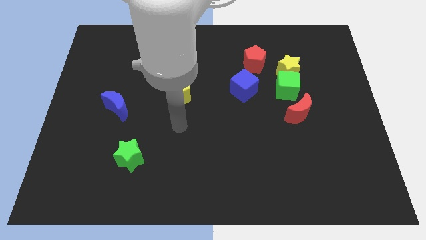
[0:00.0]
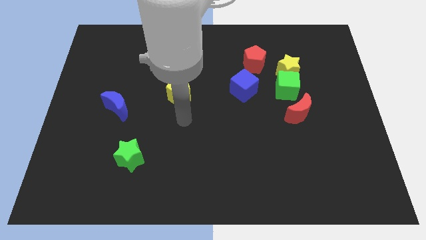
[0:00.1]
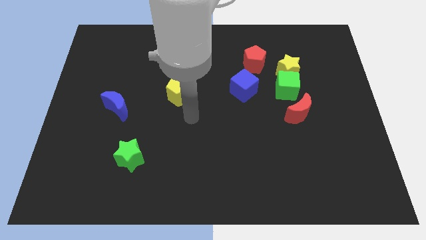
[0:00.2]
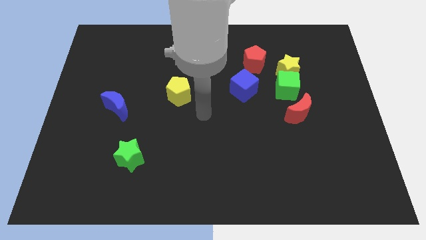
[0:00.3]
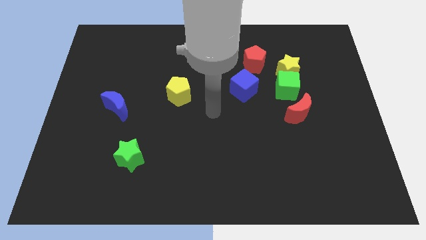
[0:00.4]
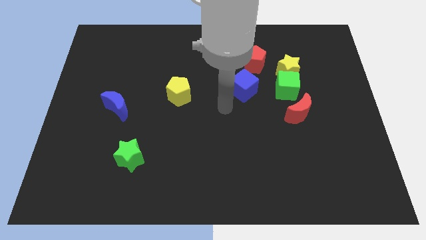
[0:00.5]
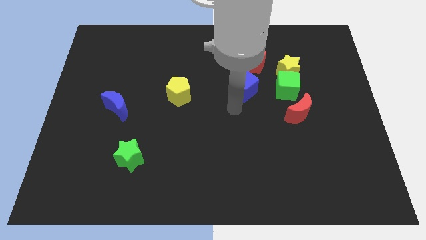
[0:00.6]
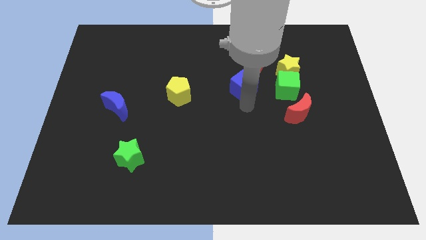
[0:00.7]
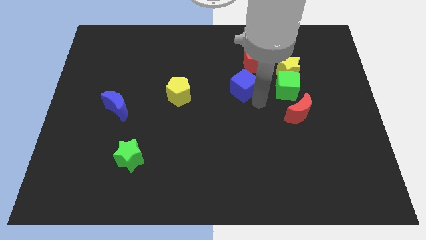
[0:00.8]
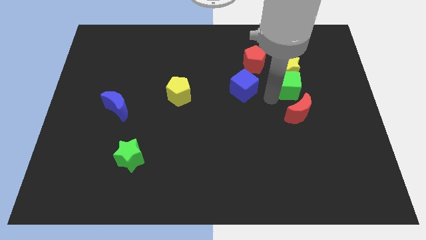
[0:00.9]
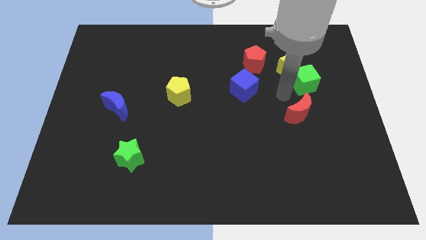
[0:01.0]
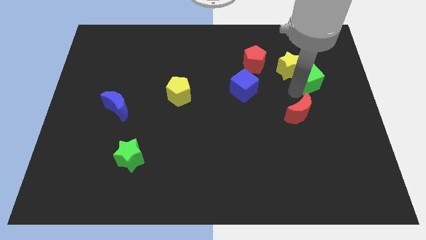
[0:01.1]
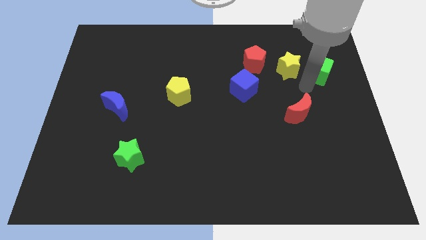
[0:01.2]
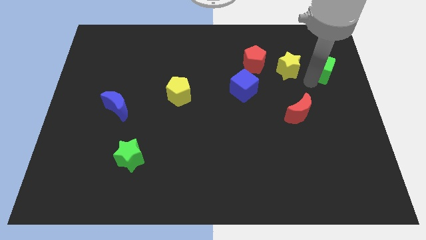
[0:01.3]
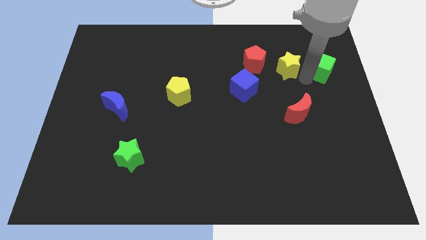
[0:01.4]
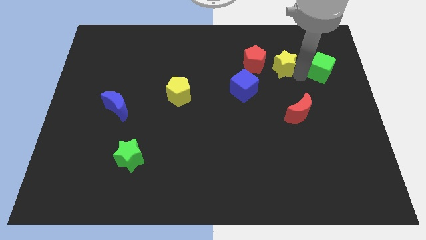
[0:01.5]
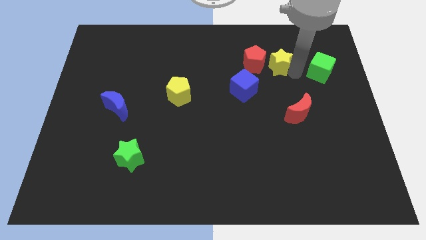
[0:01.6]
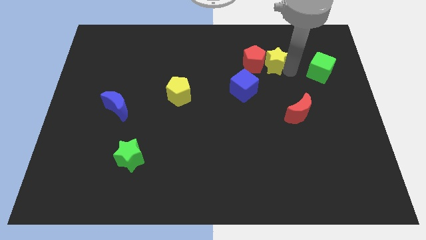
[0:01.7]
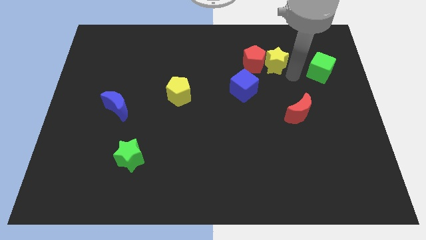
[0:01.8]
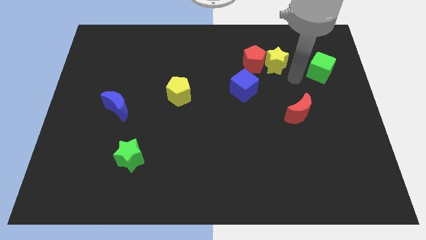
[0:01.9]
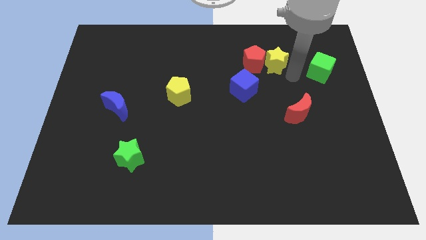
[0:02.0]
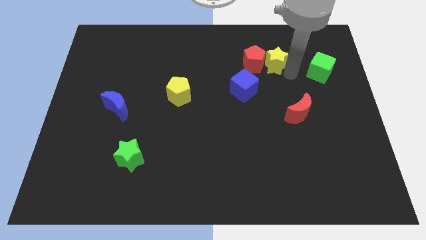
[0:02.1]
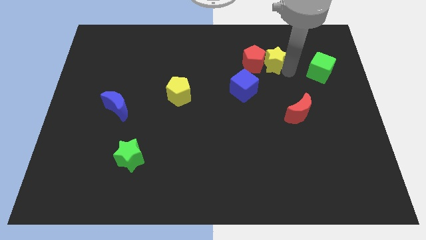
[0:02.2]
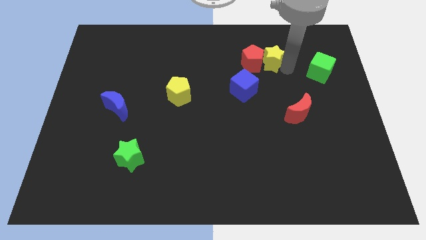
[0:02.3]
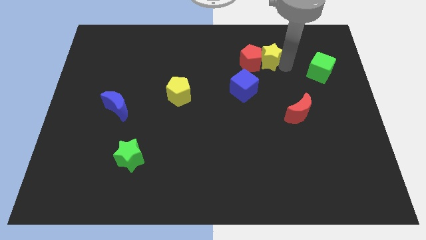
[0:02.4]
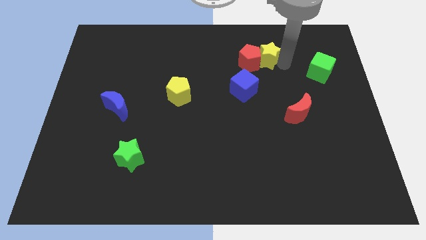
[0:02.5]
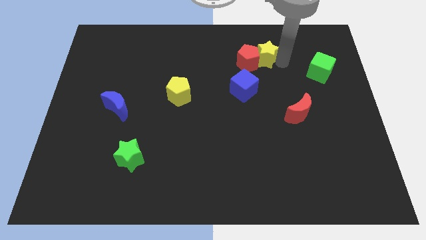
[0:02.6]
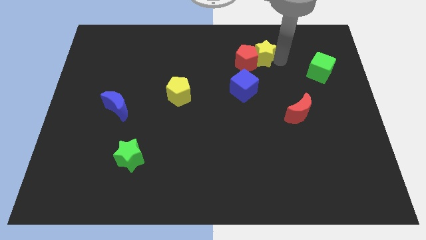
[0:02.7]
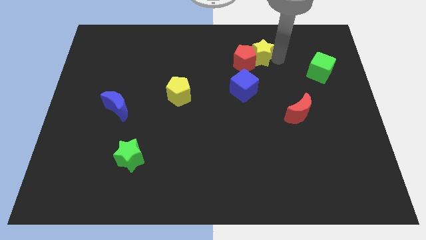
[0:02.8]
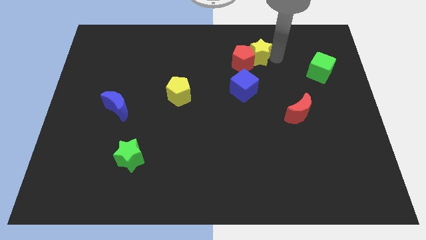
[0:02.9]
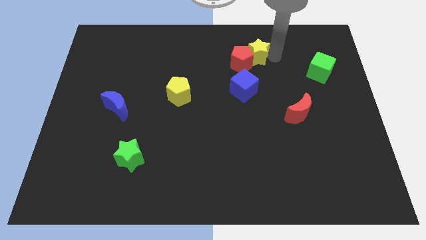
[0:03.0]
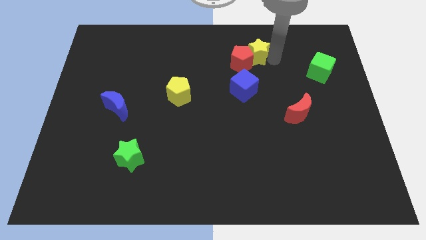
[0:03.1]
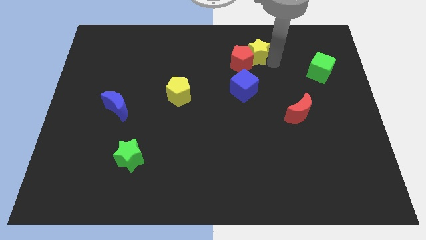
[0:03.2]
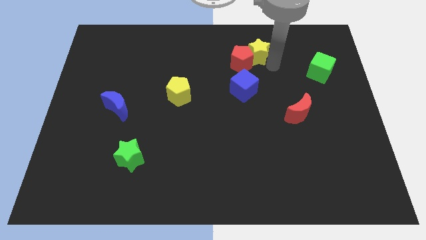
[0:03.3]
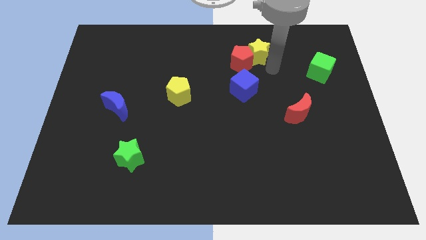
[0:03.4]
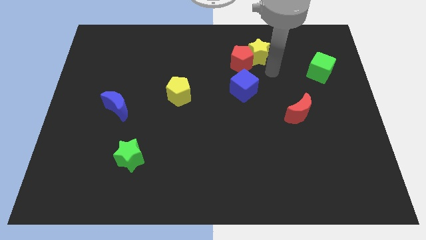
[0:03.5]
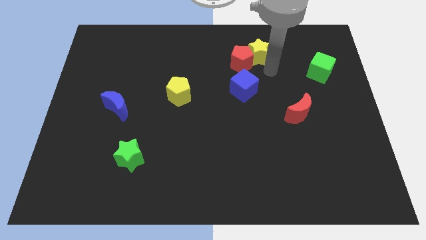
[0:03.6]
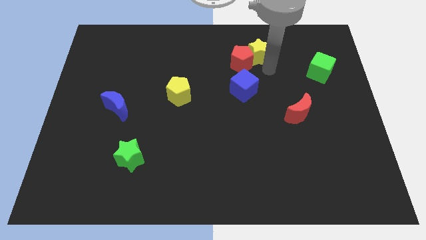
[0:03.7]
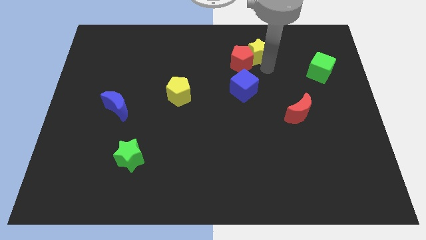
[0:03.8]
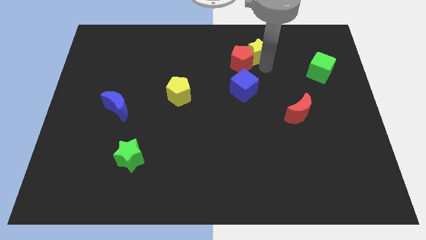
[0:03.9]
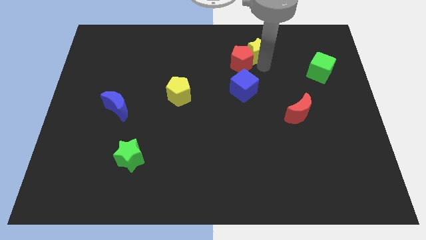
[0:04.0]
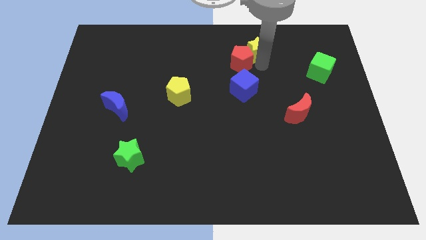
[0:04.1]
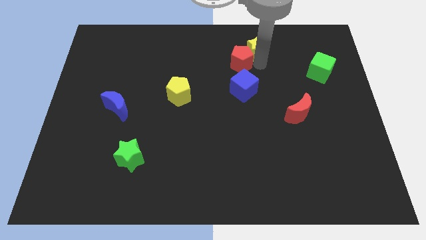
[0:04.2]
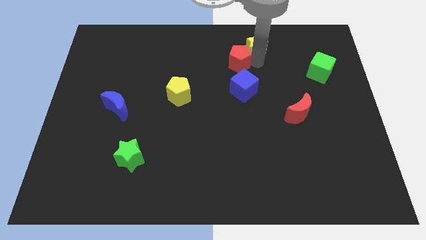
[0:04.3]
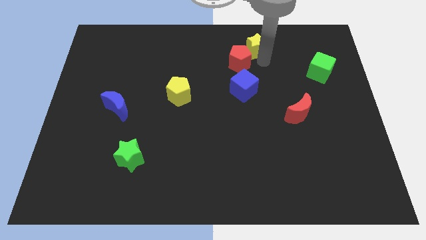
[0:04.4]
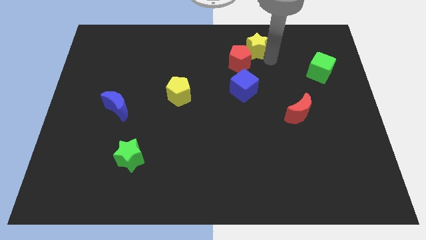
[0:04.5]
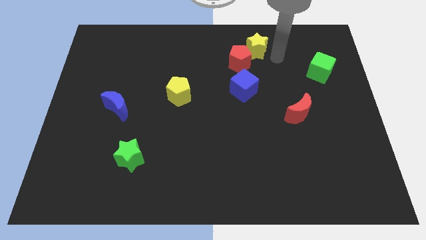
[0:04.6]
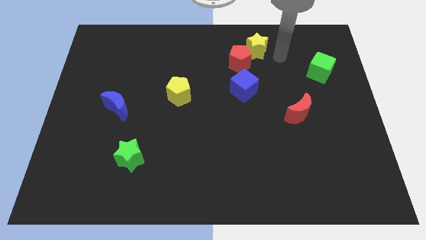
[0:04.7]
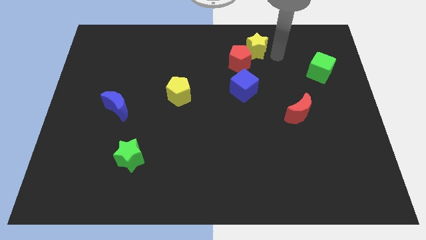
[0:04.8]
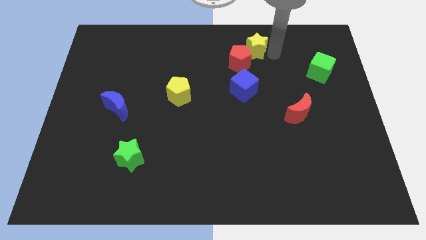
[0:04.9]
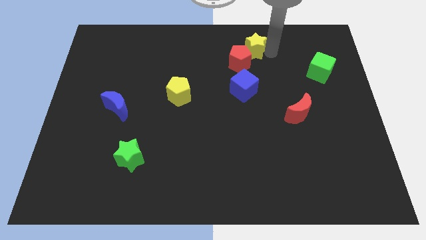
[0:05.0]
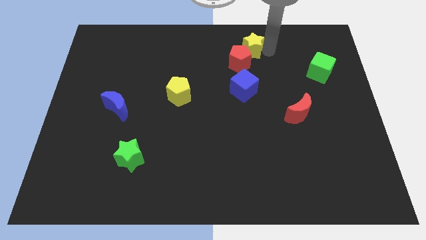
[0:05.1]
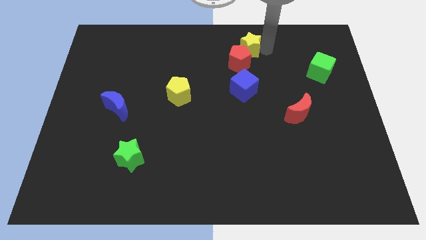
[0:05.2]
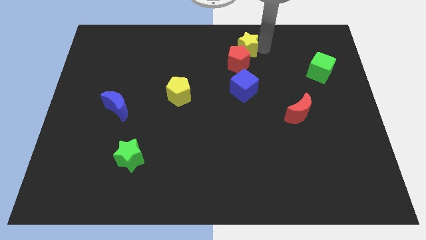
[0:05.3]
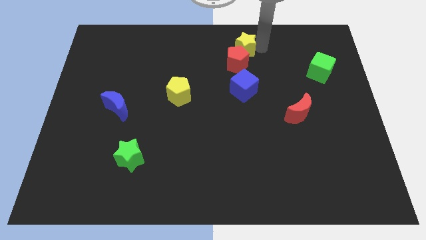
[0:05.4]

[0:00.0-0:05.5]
put the yellow star to the top
